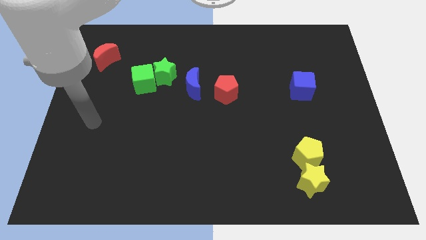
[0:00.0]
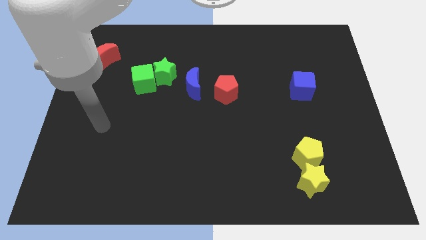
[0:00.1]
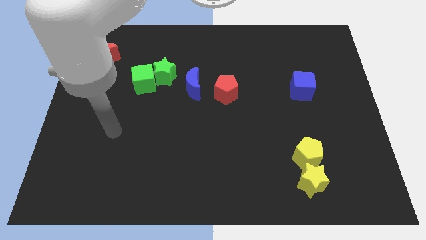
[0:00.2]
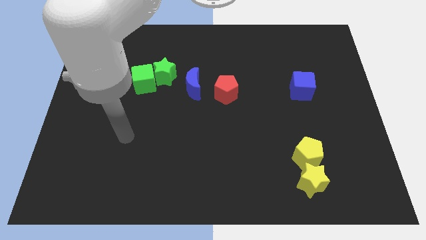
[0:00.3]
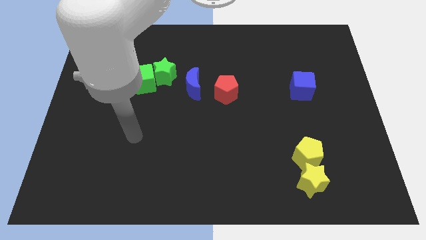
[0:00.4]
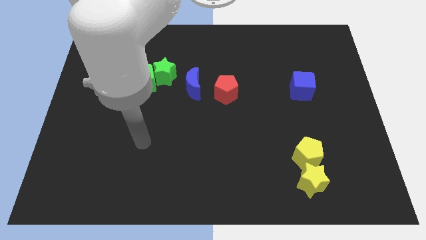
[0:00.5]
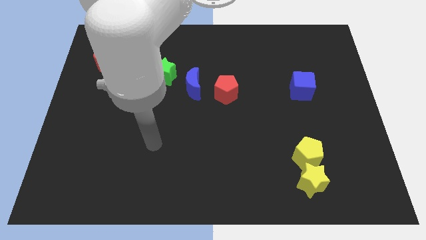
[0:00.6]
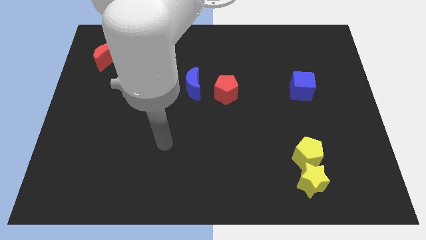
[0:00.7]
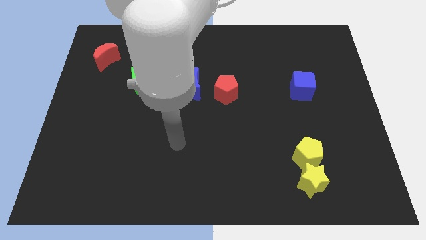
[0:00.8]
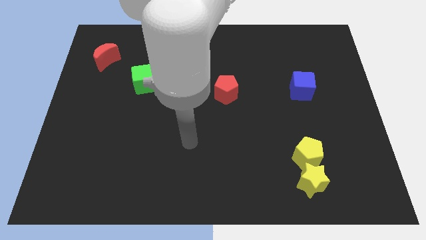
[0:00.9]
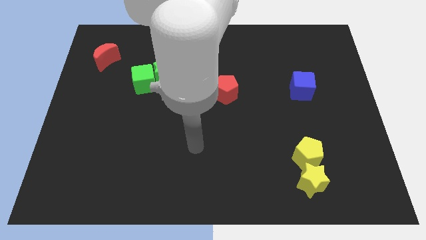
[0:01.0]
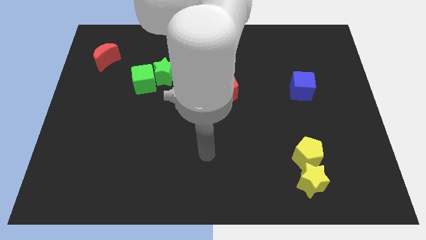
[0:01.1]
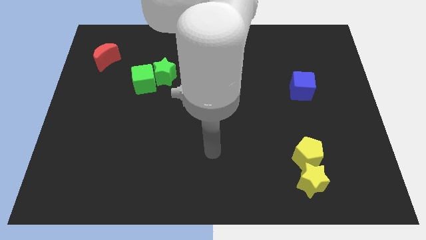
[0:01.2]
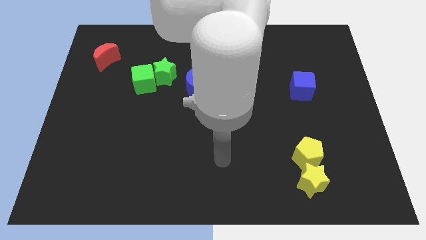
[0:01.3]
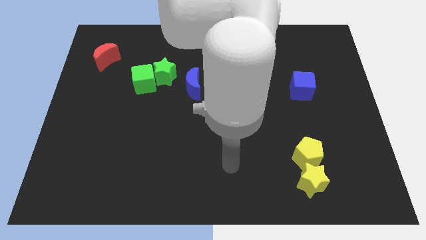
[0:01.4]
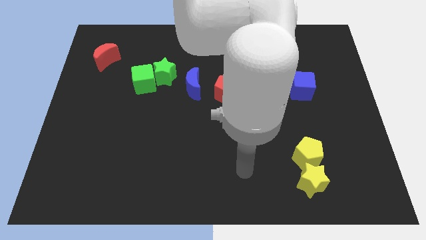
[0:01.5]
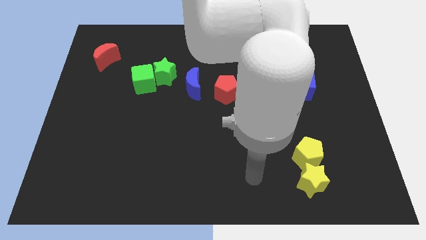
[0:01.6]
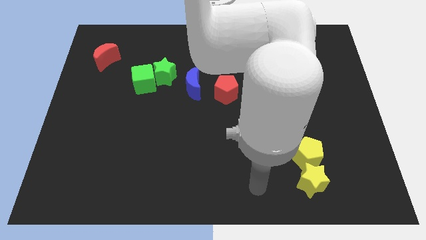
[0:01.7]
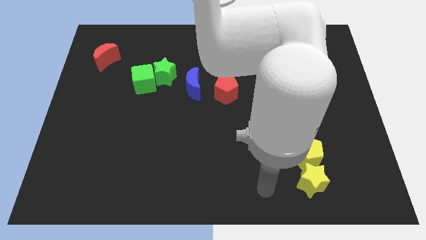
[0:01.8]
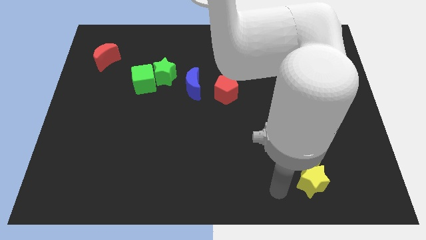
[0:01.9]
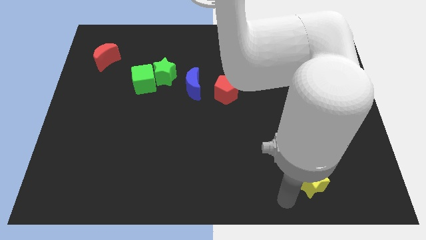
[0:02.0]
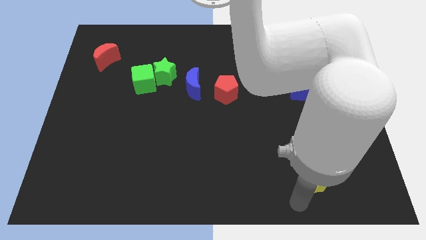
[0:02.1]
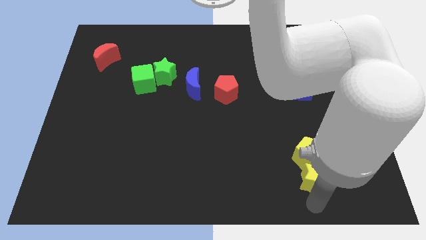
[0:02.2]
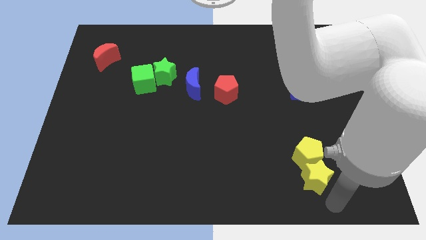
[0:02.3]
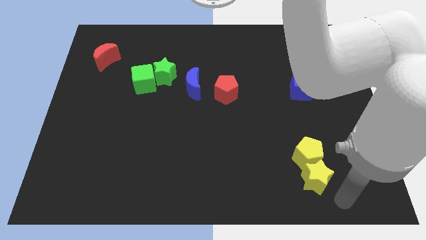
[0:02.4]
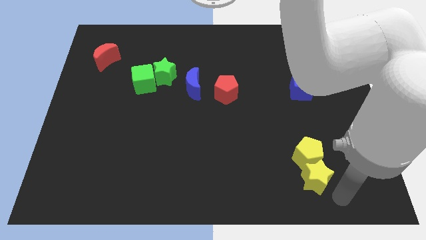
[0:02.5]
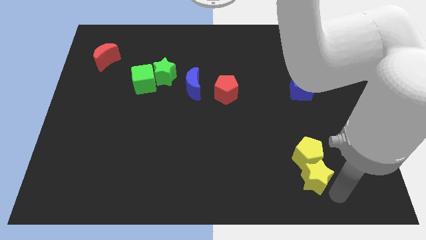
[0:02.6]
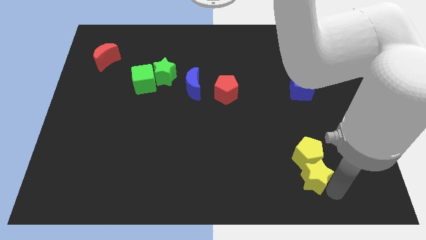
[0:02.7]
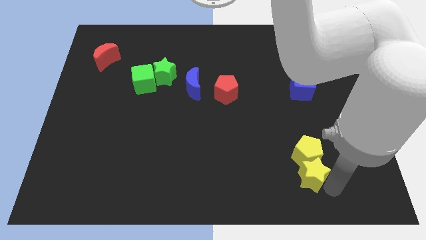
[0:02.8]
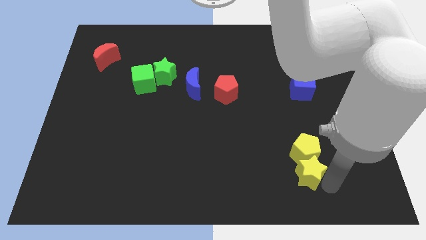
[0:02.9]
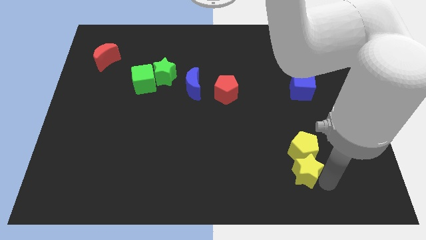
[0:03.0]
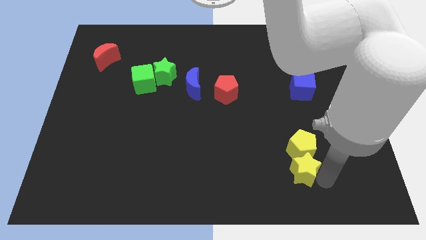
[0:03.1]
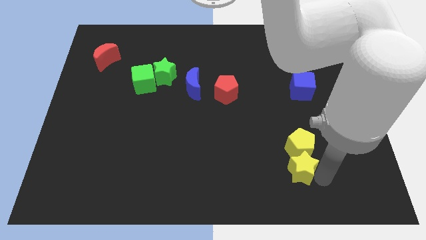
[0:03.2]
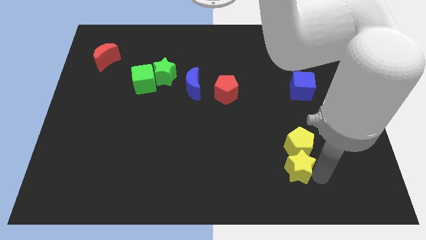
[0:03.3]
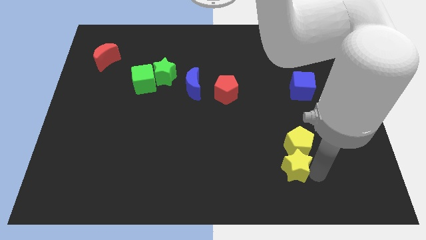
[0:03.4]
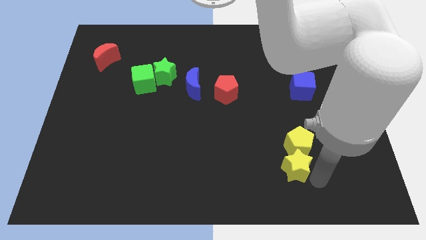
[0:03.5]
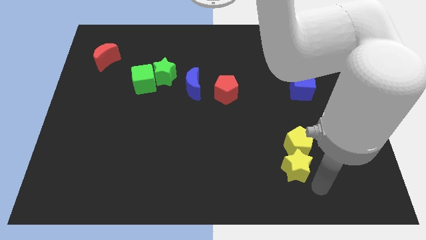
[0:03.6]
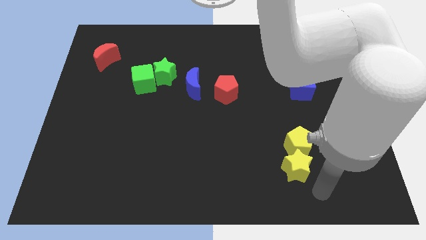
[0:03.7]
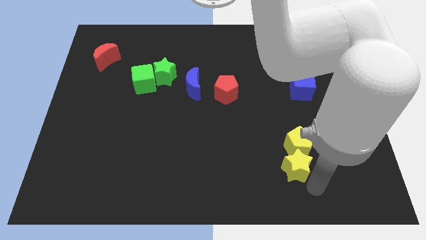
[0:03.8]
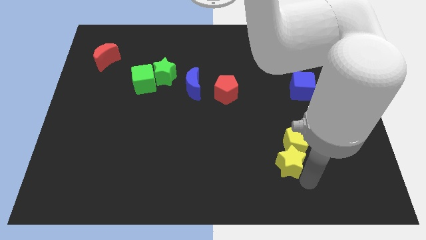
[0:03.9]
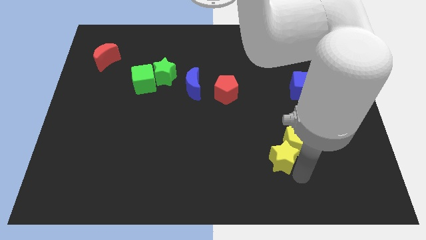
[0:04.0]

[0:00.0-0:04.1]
slide the yellow star slightly diagonally upwards and left

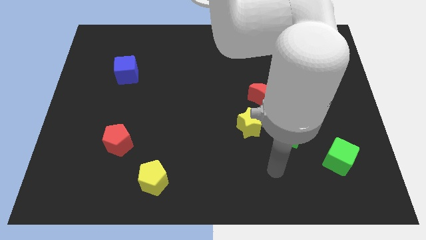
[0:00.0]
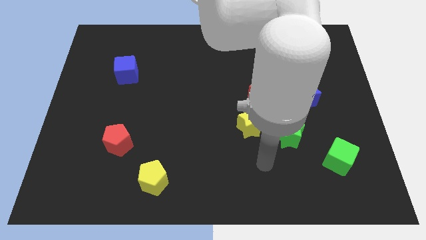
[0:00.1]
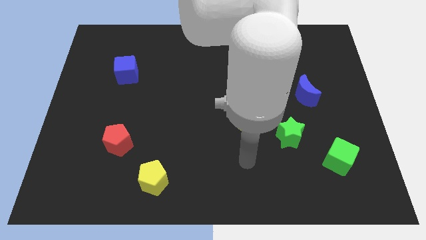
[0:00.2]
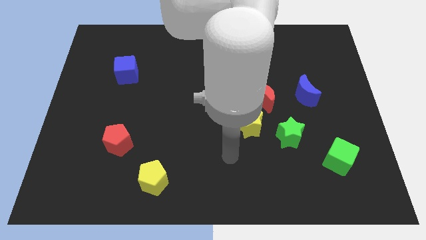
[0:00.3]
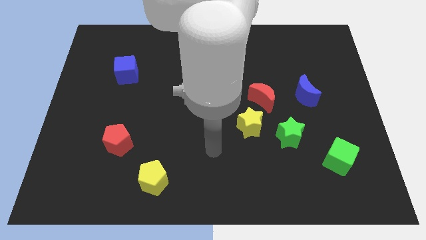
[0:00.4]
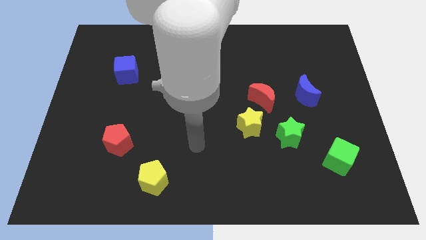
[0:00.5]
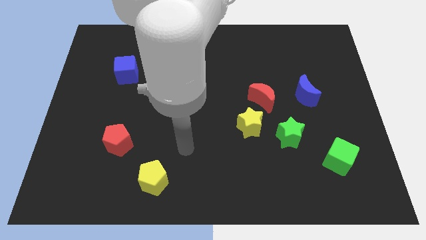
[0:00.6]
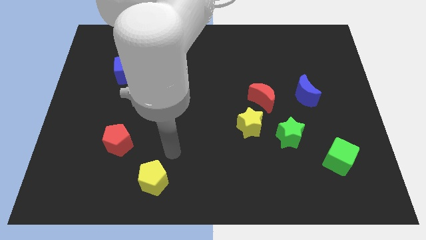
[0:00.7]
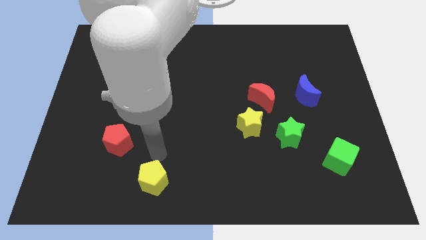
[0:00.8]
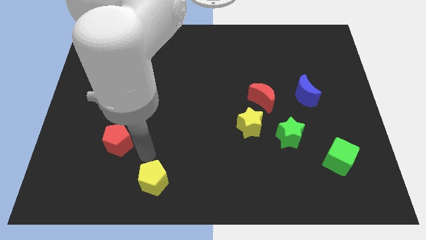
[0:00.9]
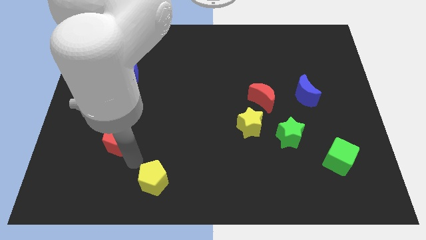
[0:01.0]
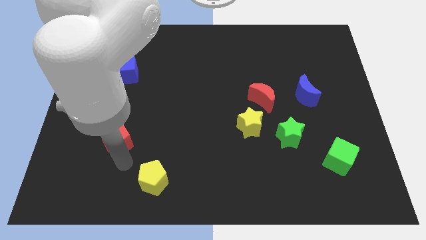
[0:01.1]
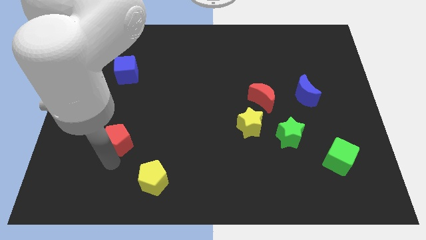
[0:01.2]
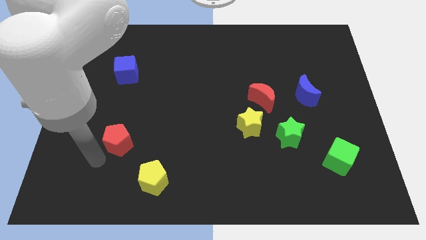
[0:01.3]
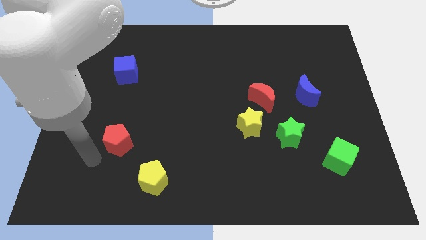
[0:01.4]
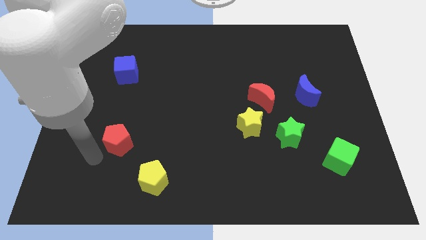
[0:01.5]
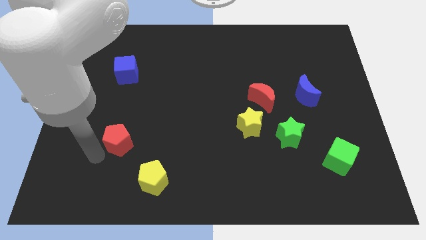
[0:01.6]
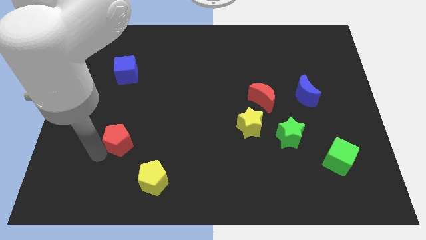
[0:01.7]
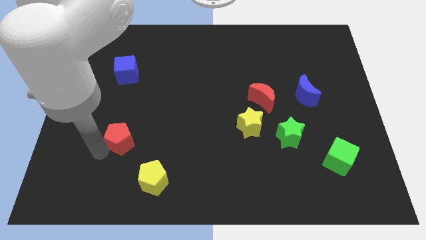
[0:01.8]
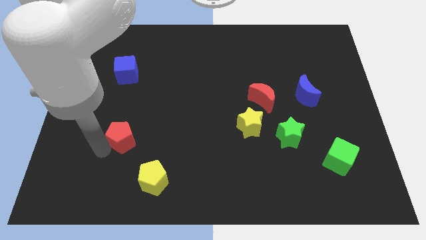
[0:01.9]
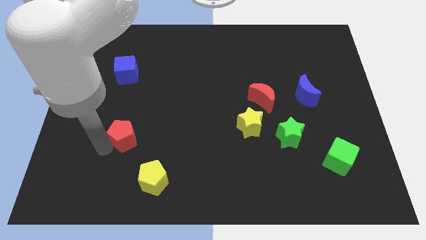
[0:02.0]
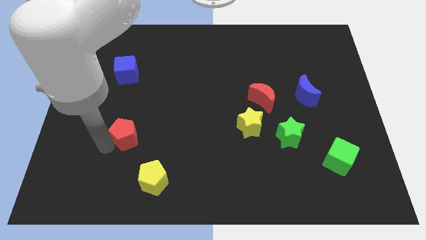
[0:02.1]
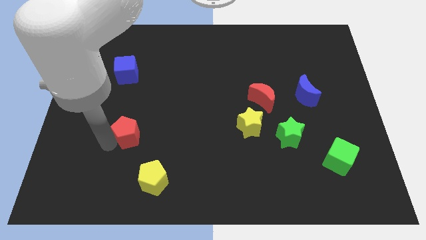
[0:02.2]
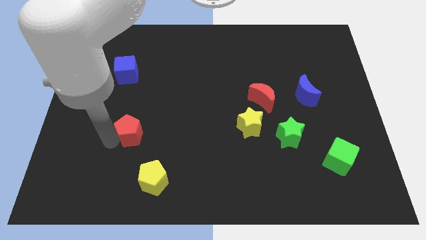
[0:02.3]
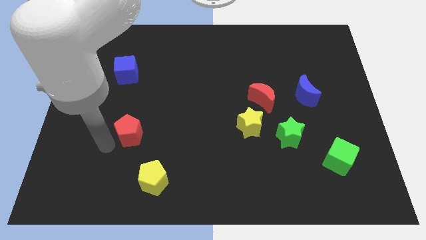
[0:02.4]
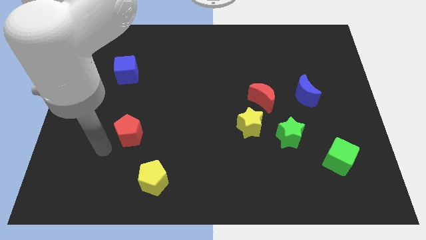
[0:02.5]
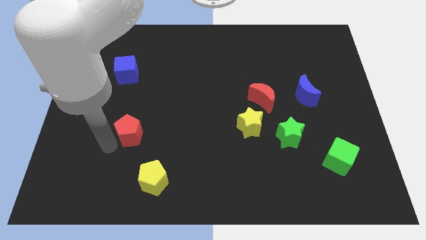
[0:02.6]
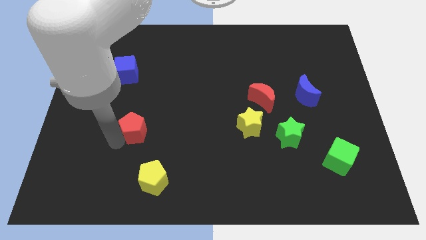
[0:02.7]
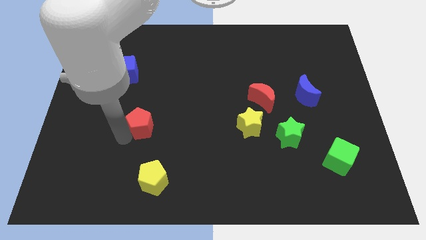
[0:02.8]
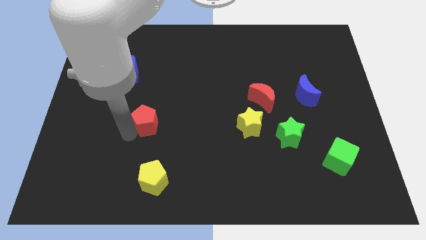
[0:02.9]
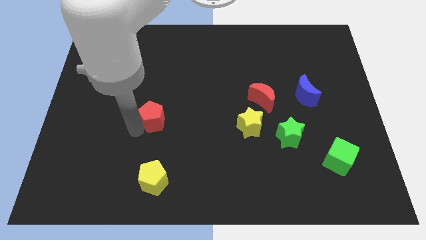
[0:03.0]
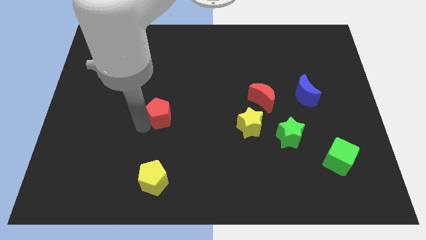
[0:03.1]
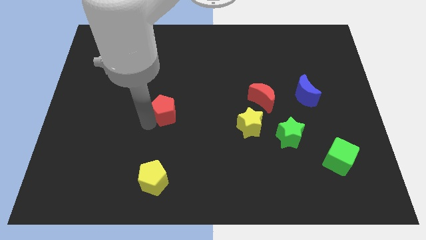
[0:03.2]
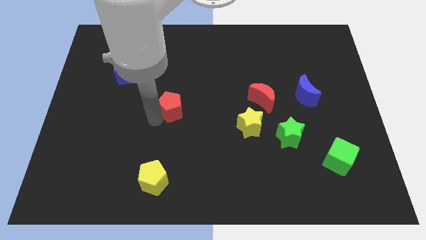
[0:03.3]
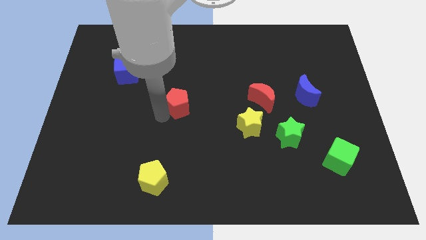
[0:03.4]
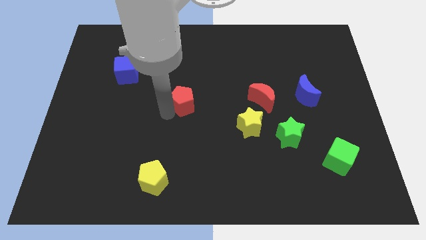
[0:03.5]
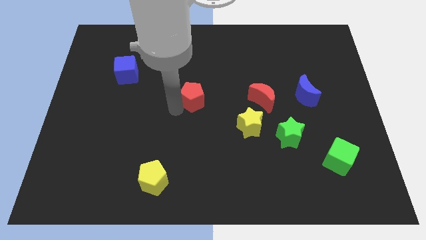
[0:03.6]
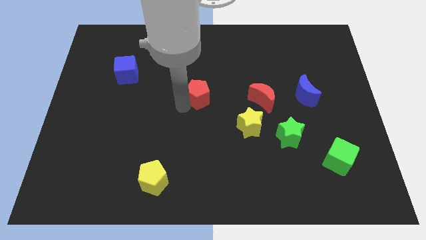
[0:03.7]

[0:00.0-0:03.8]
slide the red pentagon diagonally upwards and to the right

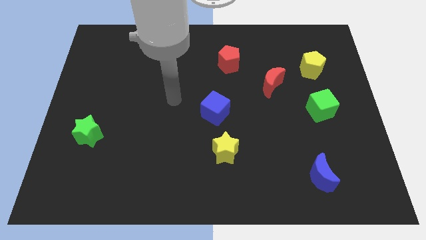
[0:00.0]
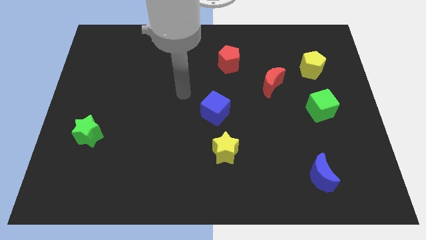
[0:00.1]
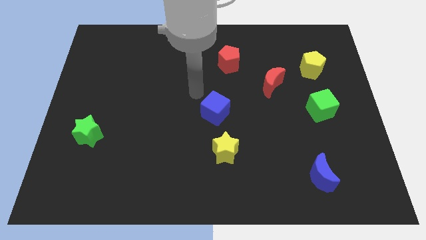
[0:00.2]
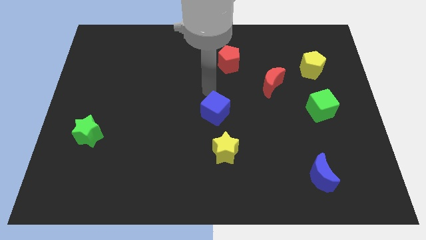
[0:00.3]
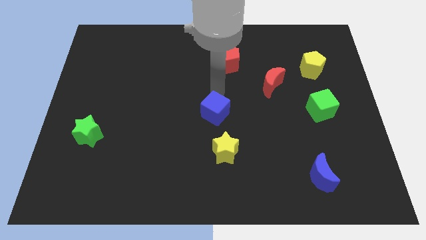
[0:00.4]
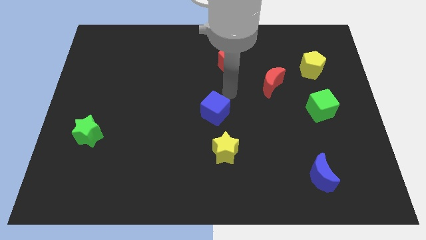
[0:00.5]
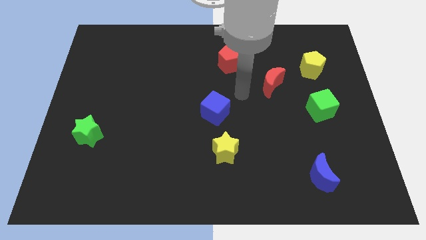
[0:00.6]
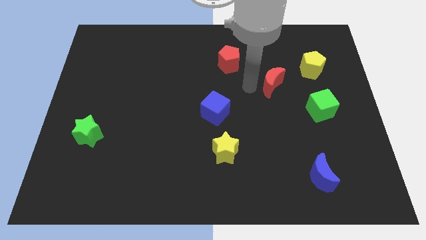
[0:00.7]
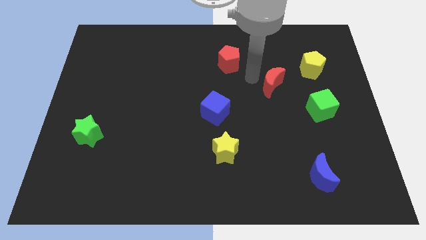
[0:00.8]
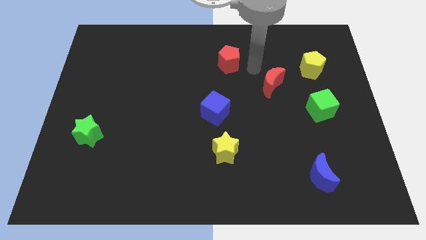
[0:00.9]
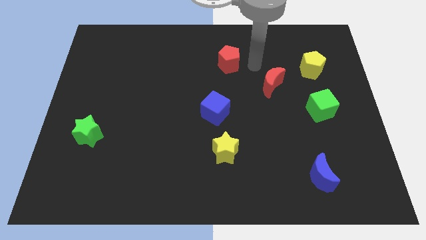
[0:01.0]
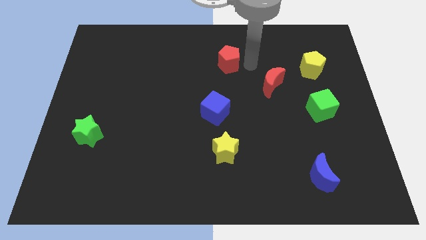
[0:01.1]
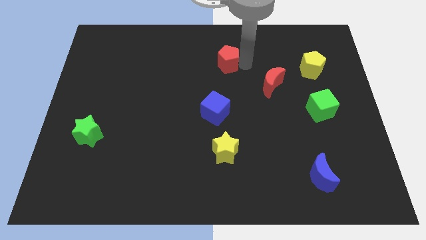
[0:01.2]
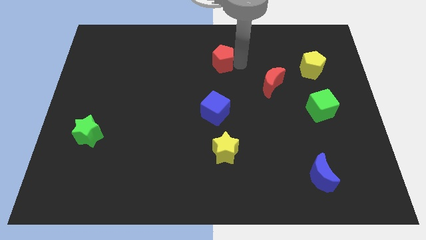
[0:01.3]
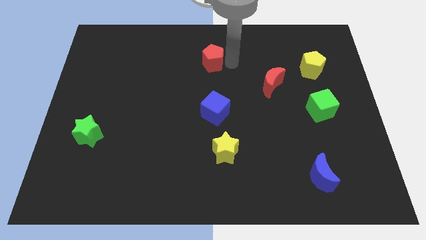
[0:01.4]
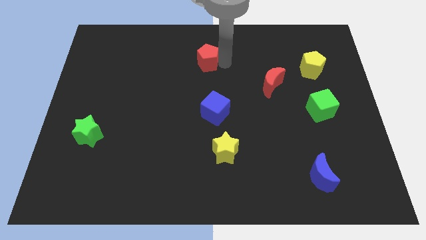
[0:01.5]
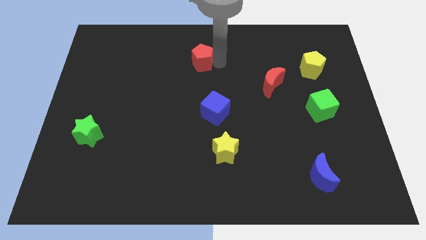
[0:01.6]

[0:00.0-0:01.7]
push the red pentagon slightly left
